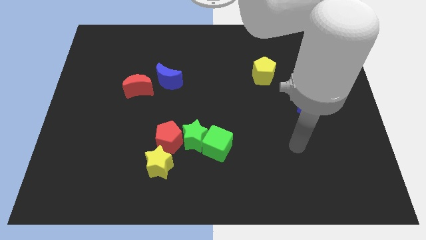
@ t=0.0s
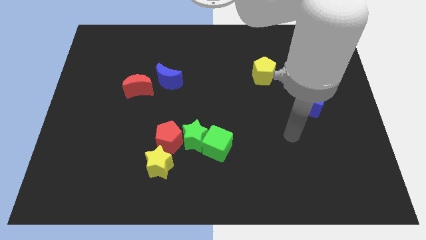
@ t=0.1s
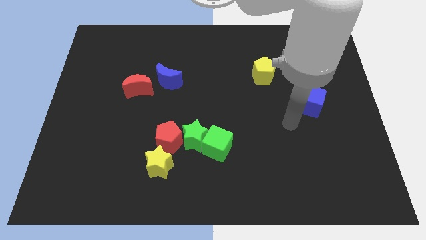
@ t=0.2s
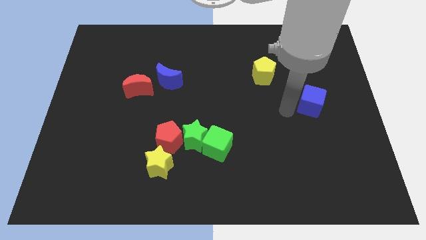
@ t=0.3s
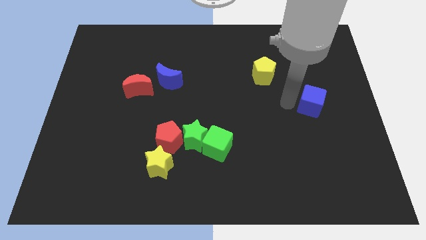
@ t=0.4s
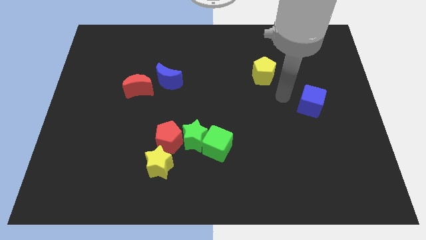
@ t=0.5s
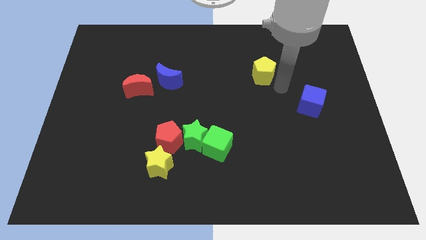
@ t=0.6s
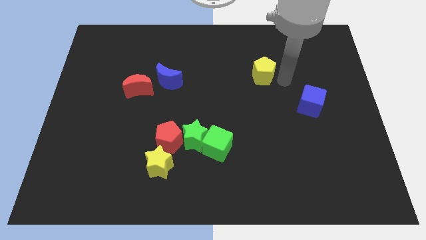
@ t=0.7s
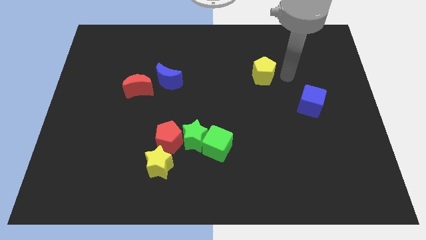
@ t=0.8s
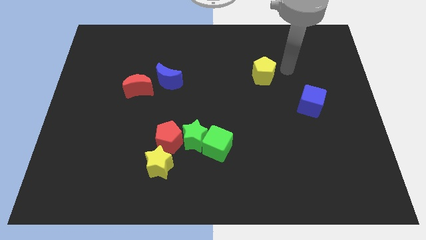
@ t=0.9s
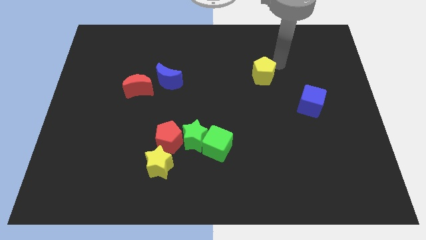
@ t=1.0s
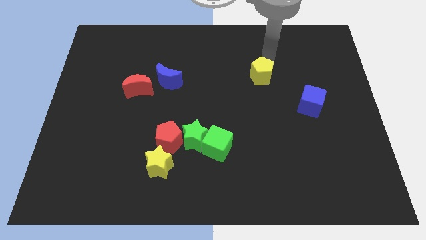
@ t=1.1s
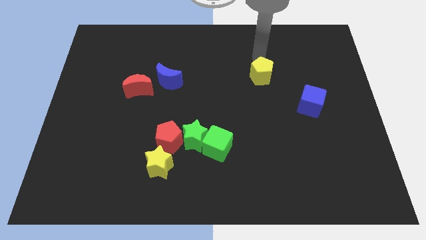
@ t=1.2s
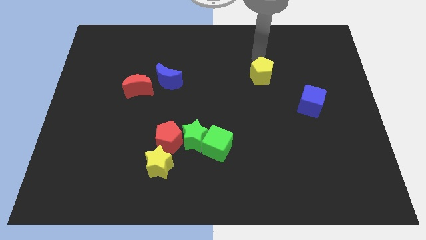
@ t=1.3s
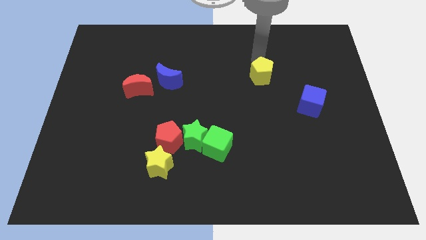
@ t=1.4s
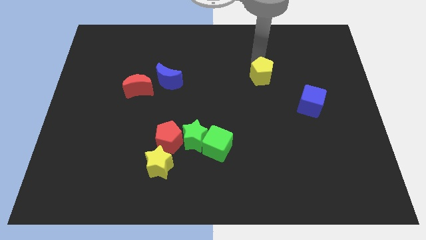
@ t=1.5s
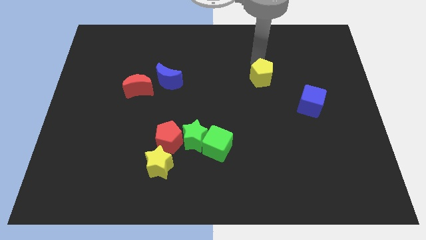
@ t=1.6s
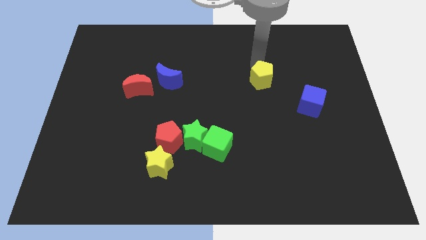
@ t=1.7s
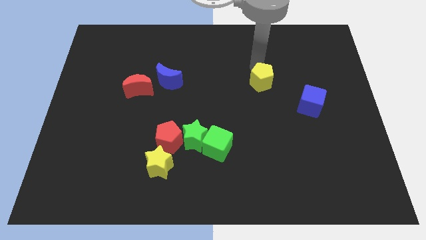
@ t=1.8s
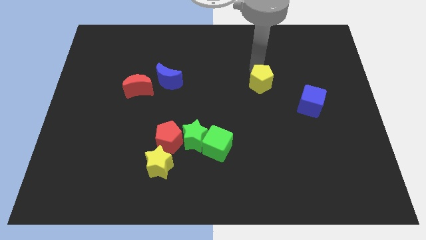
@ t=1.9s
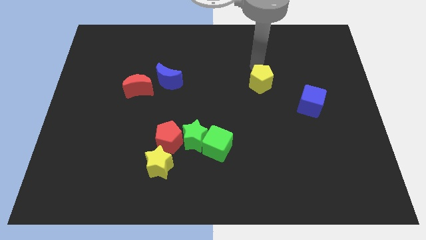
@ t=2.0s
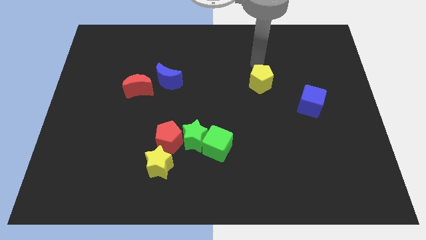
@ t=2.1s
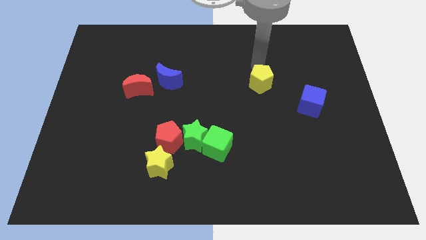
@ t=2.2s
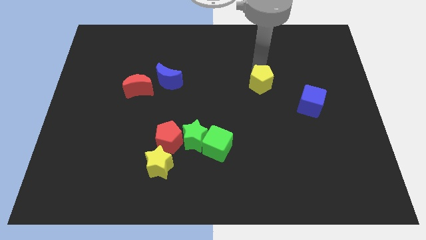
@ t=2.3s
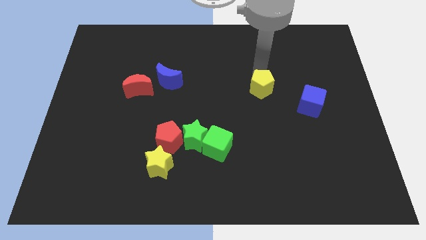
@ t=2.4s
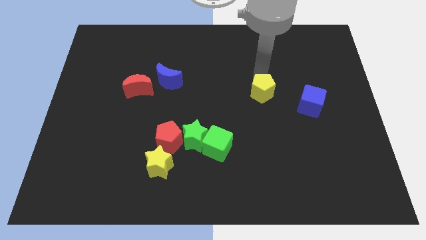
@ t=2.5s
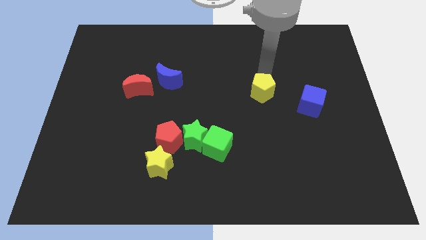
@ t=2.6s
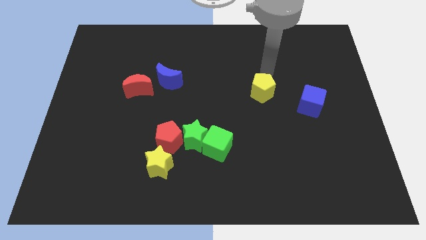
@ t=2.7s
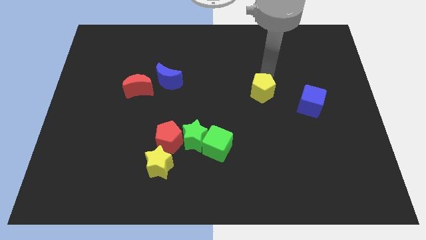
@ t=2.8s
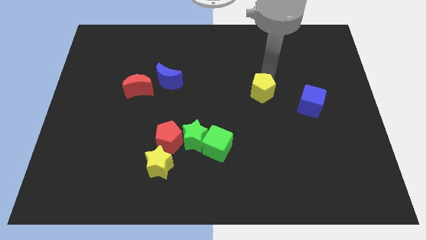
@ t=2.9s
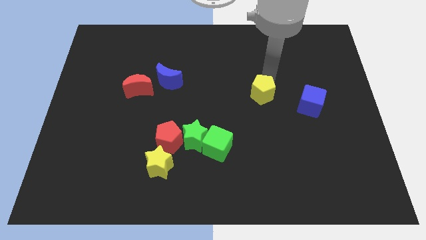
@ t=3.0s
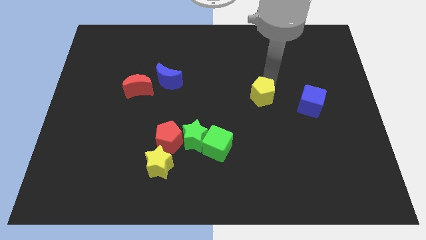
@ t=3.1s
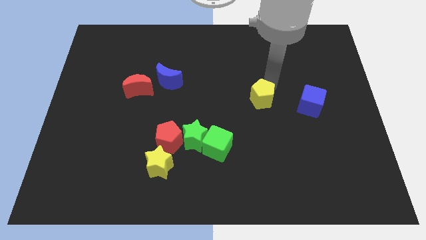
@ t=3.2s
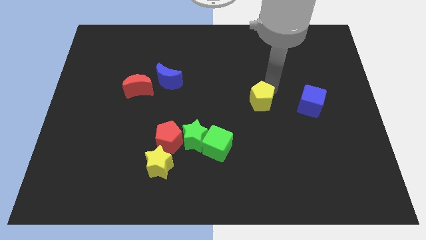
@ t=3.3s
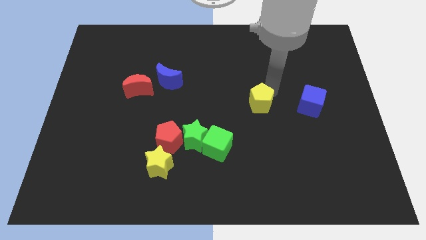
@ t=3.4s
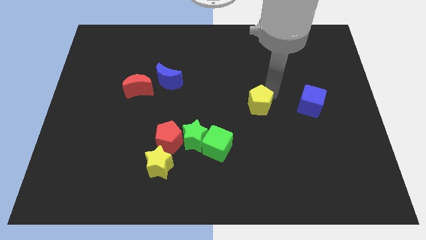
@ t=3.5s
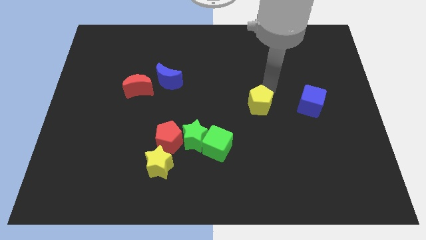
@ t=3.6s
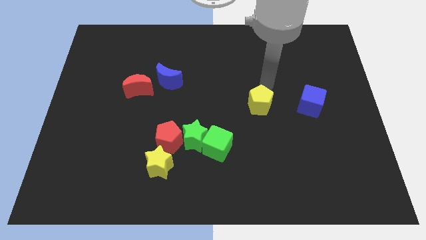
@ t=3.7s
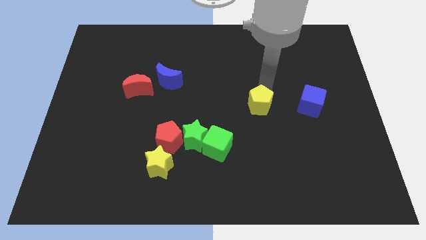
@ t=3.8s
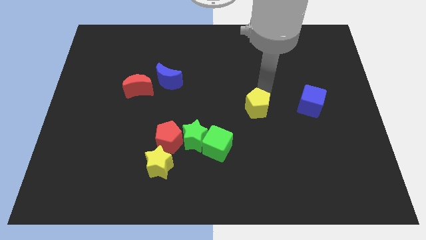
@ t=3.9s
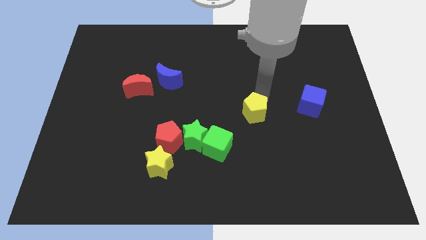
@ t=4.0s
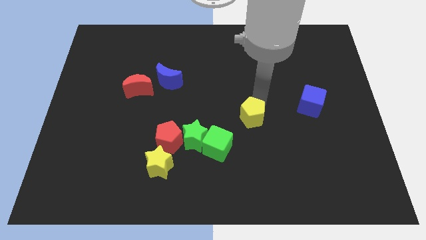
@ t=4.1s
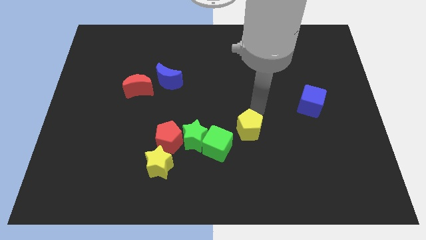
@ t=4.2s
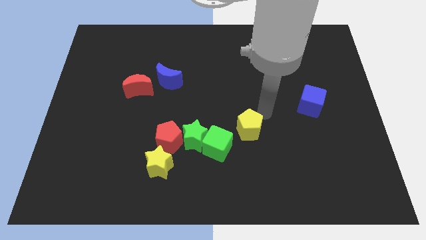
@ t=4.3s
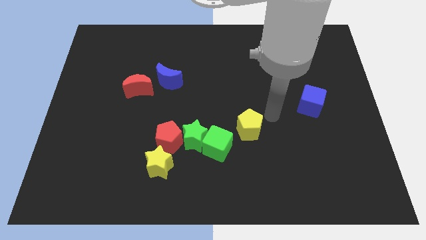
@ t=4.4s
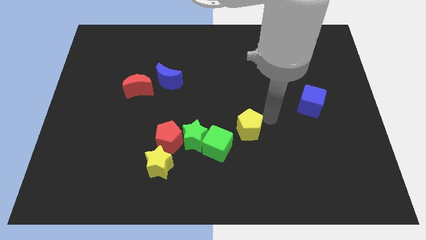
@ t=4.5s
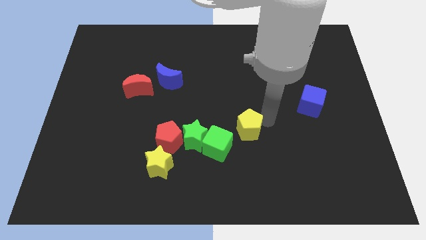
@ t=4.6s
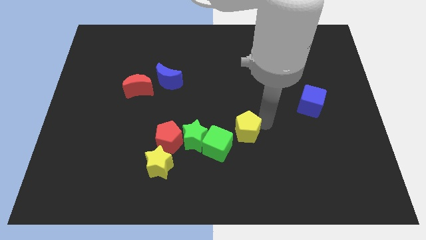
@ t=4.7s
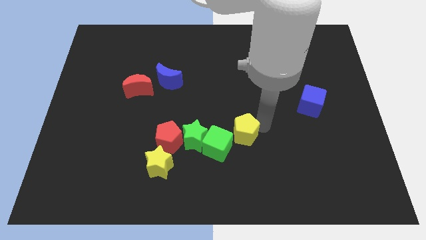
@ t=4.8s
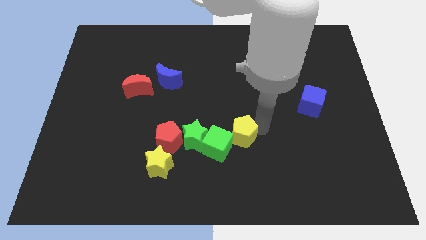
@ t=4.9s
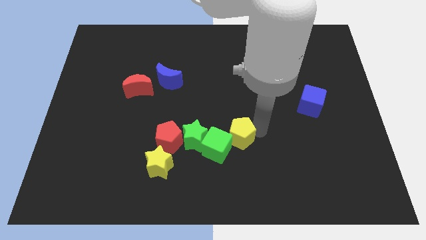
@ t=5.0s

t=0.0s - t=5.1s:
move the yellow pentagon to the green cube

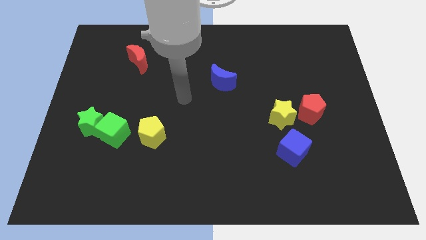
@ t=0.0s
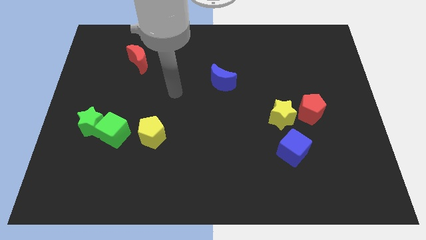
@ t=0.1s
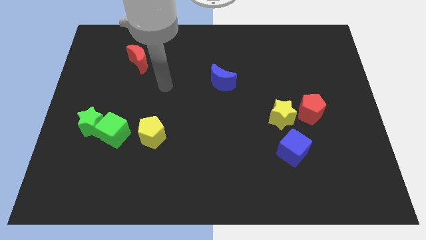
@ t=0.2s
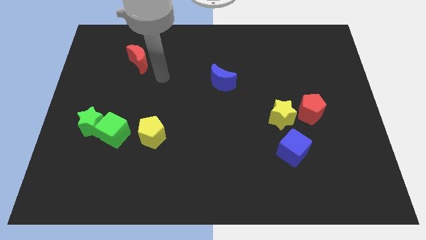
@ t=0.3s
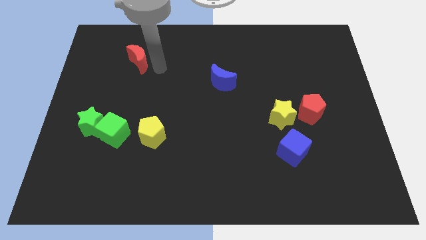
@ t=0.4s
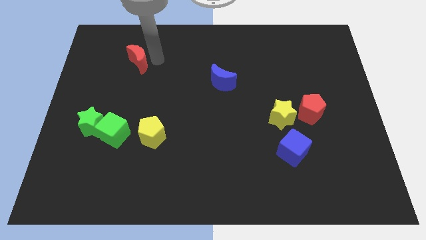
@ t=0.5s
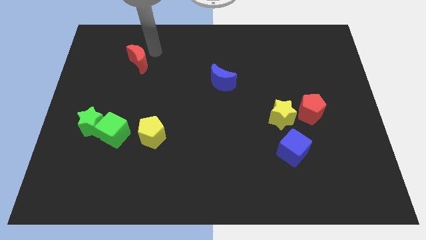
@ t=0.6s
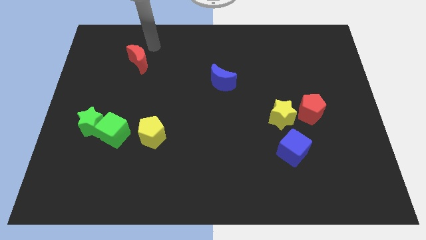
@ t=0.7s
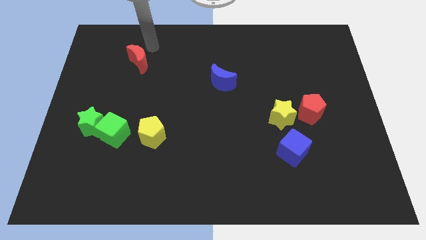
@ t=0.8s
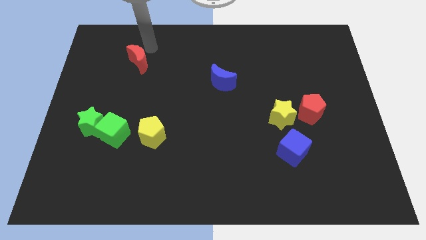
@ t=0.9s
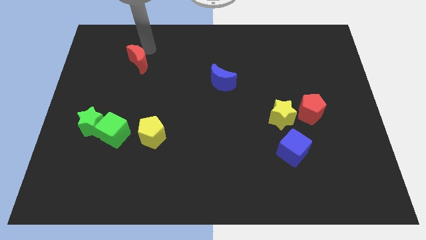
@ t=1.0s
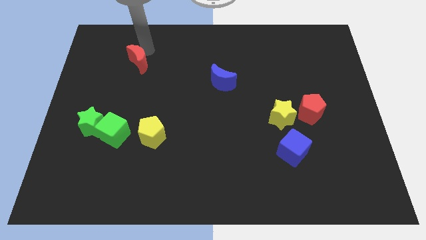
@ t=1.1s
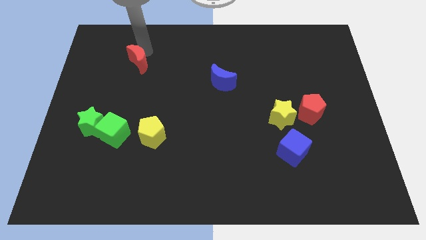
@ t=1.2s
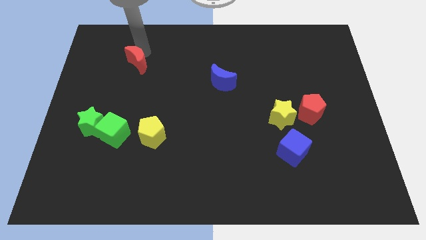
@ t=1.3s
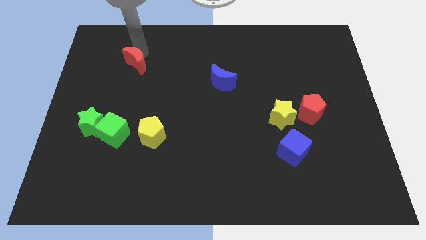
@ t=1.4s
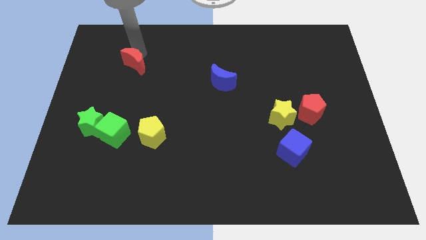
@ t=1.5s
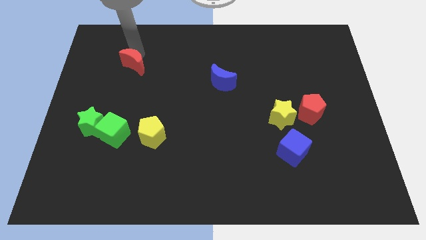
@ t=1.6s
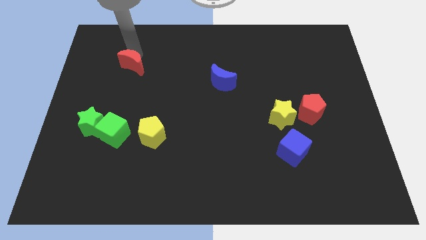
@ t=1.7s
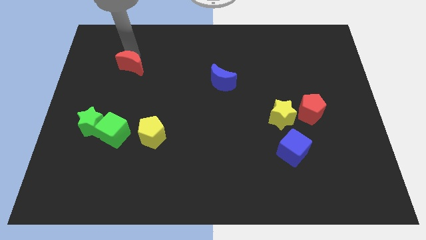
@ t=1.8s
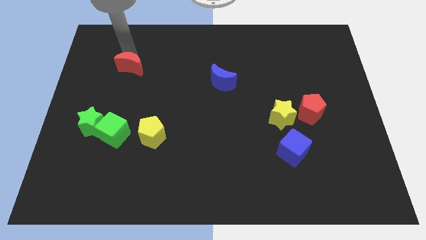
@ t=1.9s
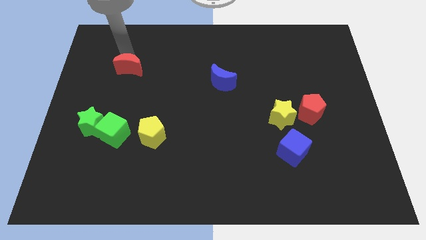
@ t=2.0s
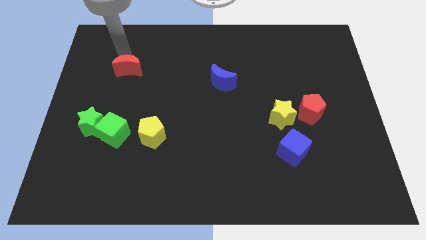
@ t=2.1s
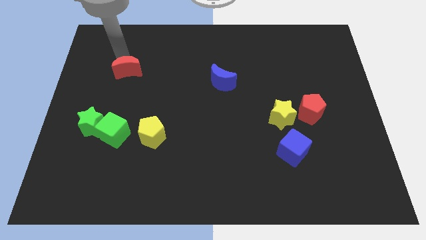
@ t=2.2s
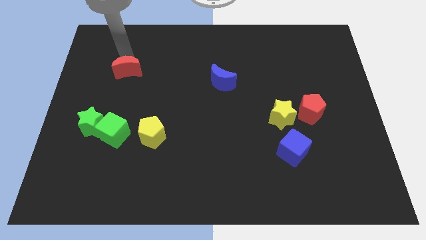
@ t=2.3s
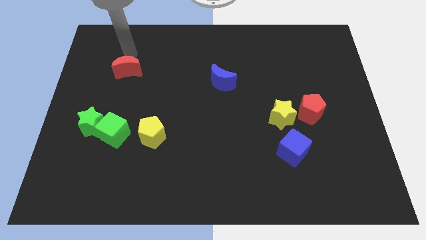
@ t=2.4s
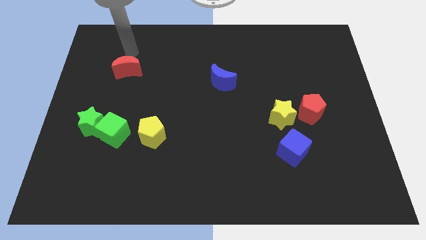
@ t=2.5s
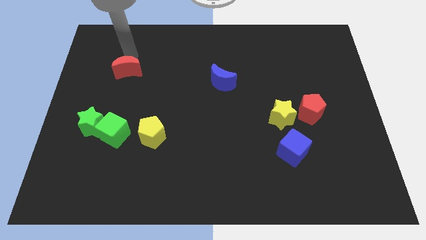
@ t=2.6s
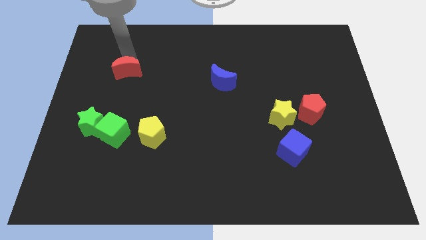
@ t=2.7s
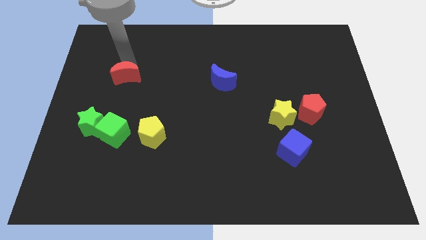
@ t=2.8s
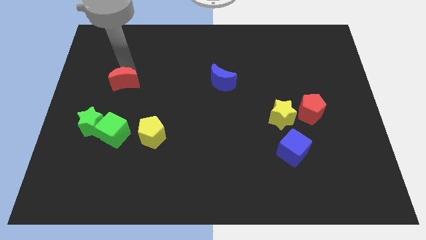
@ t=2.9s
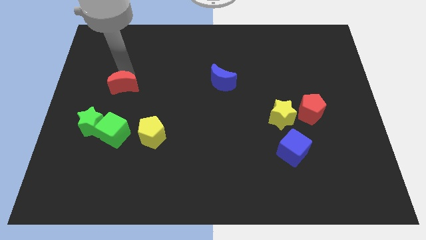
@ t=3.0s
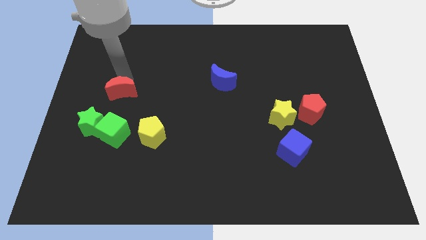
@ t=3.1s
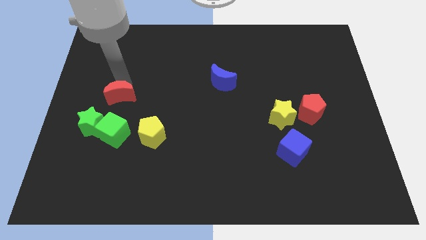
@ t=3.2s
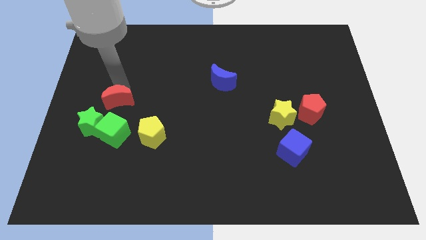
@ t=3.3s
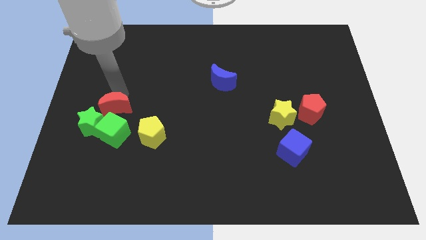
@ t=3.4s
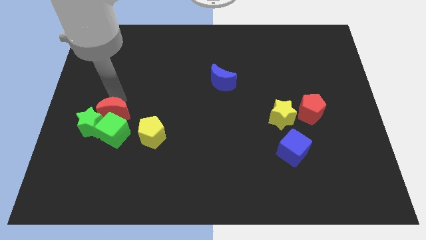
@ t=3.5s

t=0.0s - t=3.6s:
push the red moon close to the green cube
